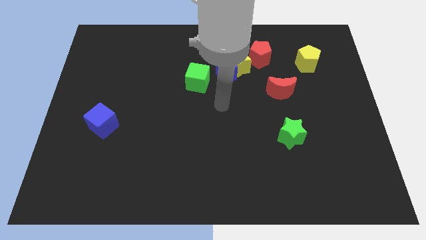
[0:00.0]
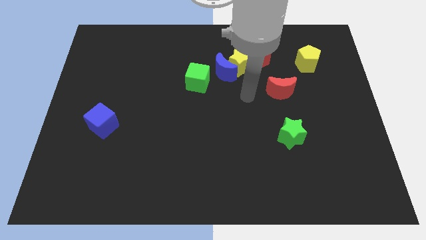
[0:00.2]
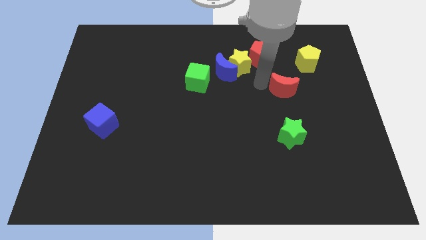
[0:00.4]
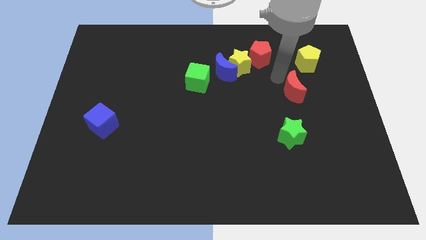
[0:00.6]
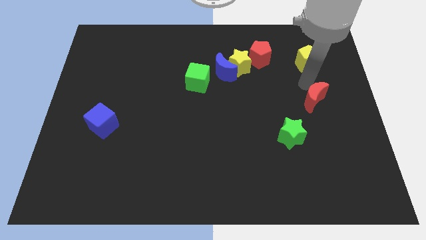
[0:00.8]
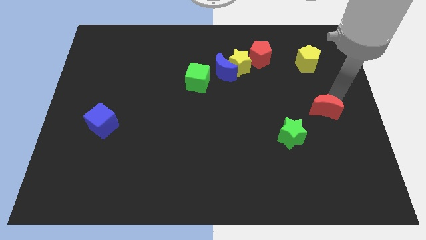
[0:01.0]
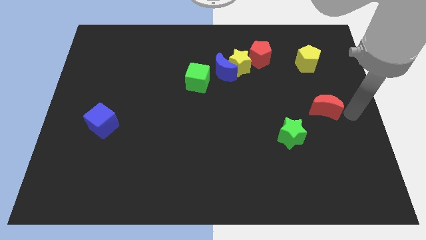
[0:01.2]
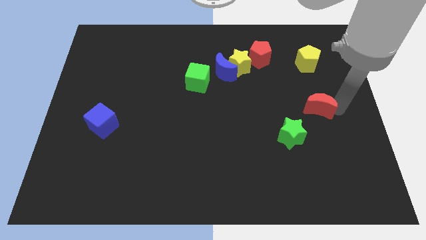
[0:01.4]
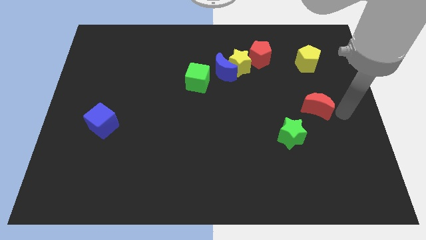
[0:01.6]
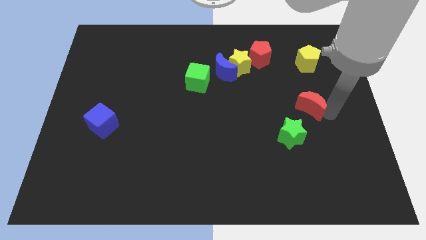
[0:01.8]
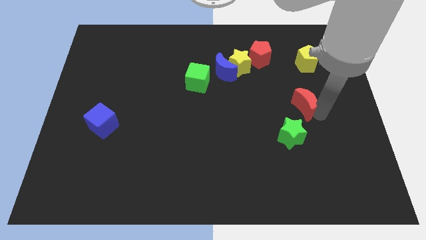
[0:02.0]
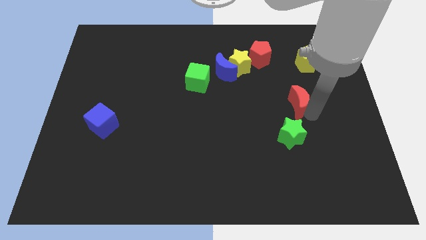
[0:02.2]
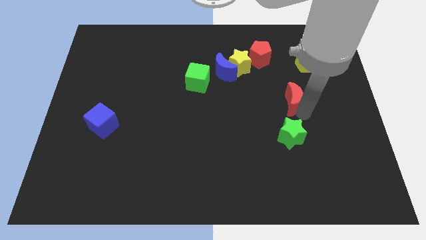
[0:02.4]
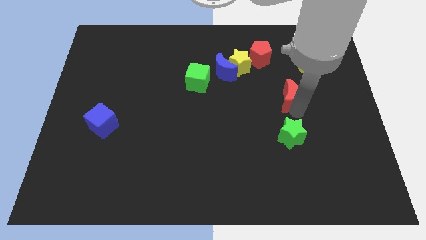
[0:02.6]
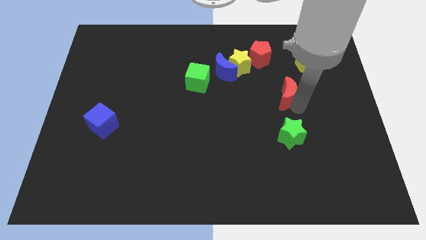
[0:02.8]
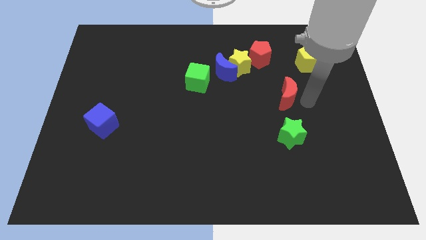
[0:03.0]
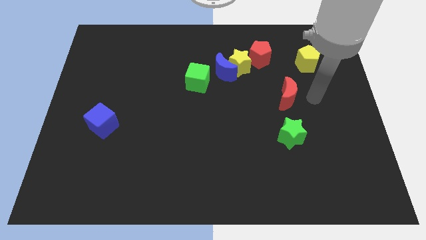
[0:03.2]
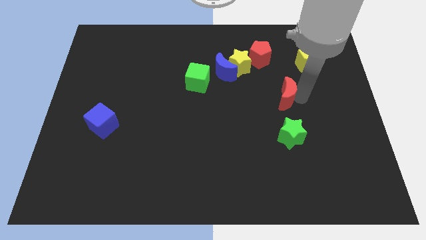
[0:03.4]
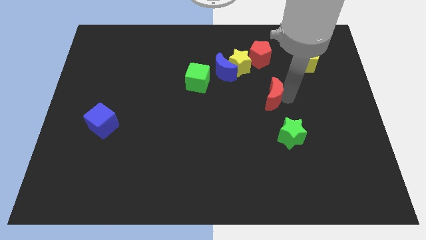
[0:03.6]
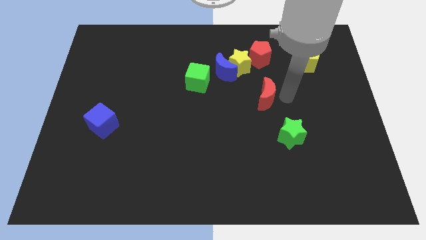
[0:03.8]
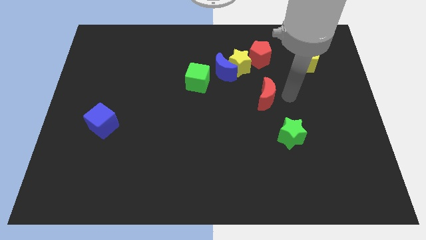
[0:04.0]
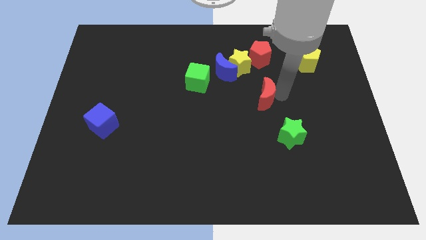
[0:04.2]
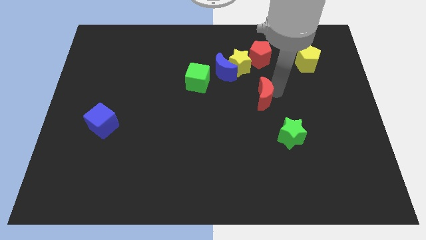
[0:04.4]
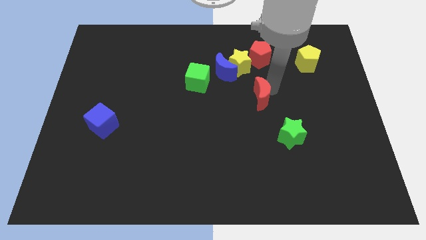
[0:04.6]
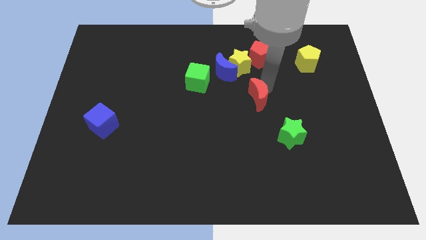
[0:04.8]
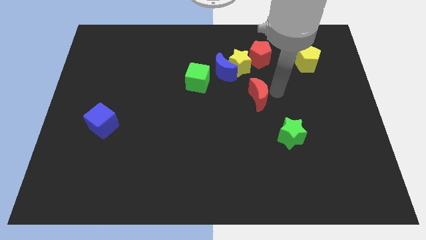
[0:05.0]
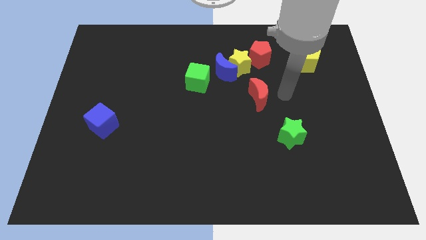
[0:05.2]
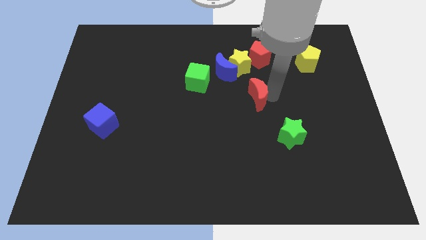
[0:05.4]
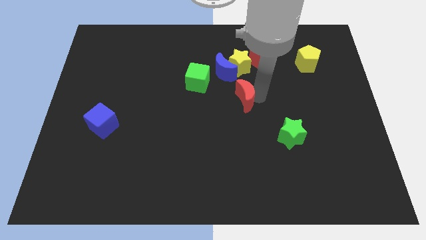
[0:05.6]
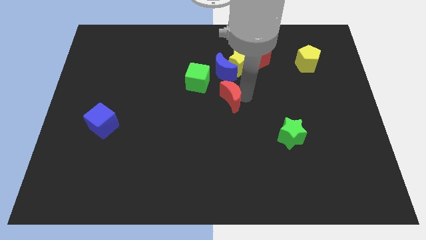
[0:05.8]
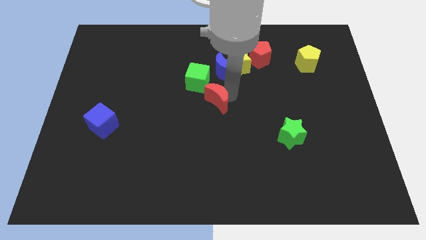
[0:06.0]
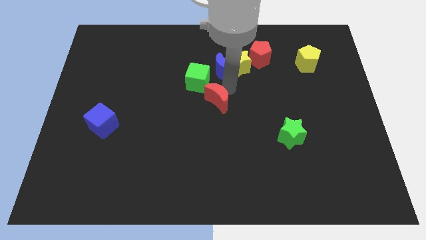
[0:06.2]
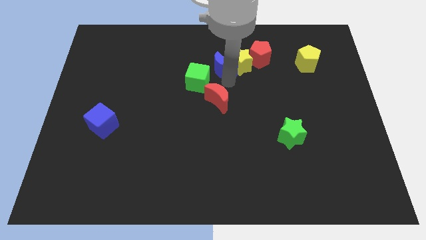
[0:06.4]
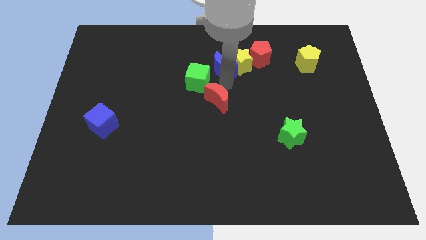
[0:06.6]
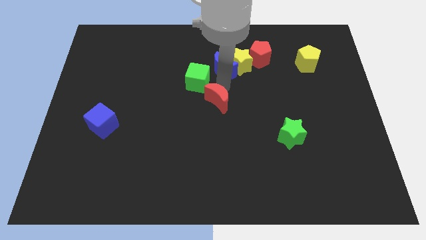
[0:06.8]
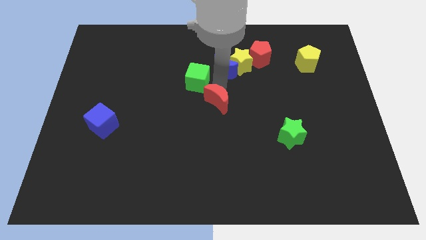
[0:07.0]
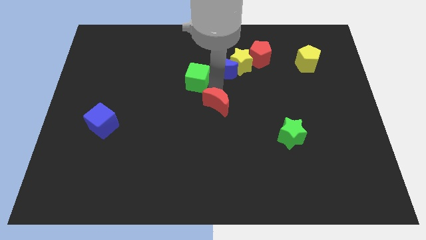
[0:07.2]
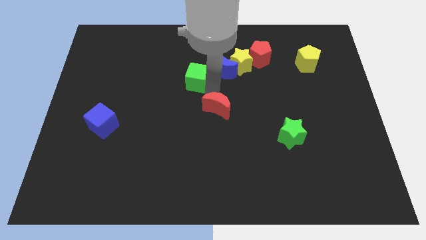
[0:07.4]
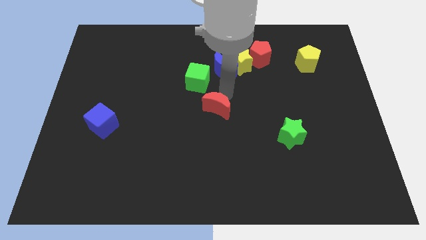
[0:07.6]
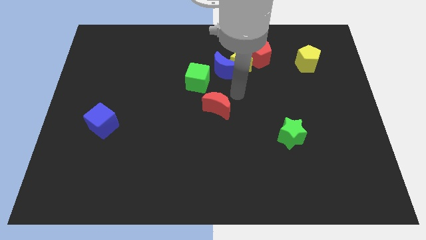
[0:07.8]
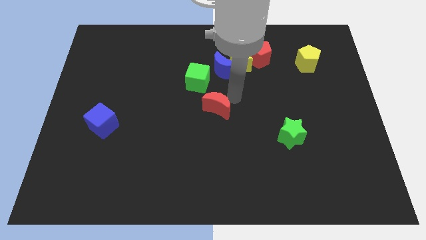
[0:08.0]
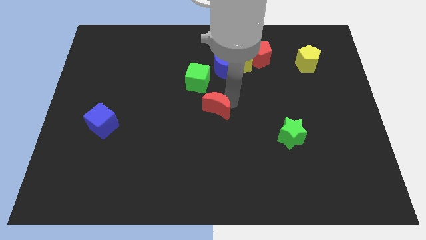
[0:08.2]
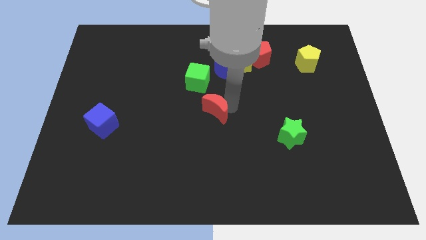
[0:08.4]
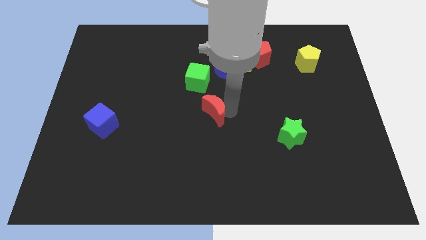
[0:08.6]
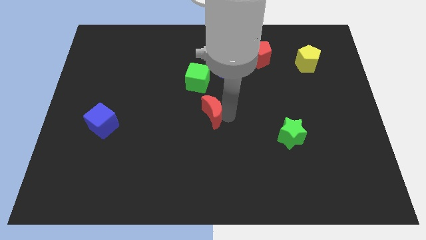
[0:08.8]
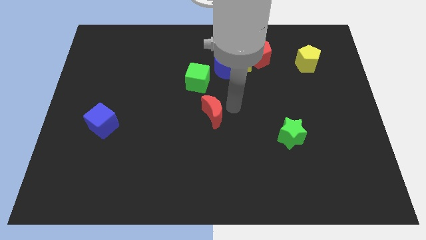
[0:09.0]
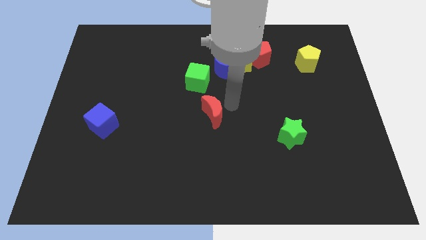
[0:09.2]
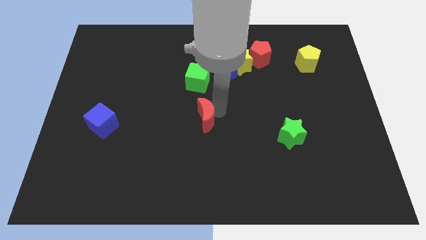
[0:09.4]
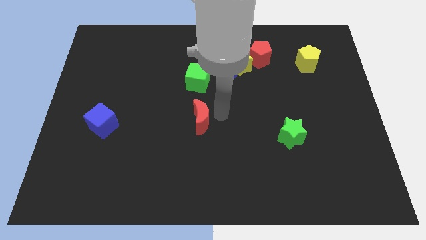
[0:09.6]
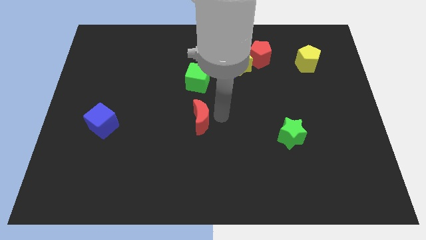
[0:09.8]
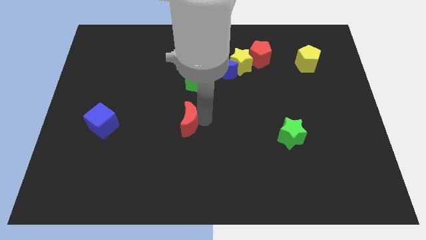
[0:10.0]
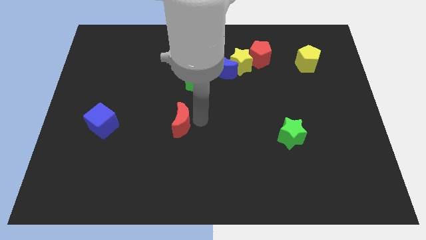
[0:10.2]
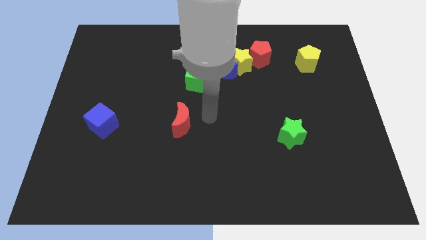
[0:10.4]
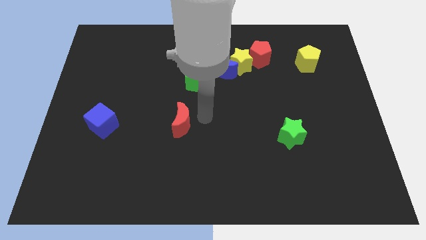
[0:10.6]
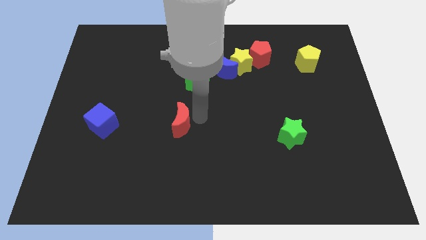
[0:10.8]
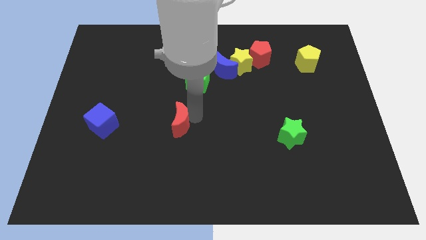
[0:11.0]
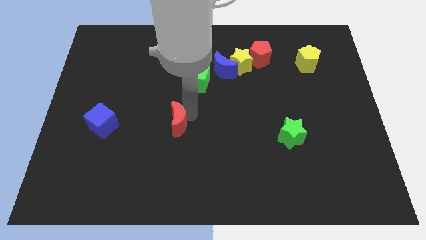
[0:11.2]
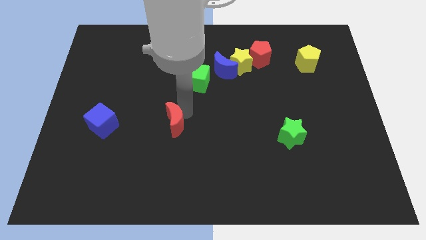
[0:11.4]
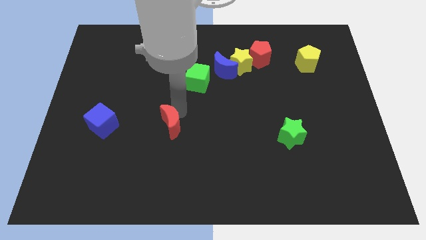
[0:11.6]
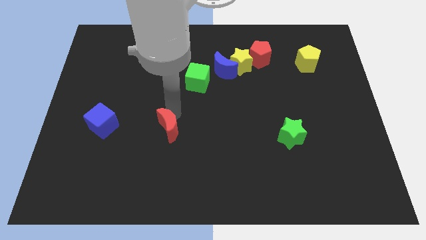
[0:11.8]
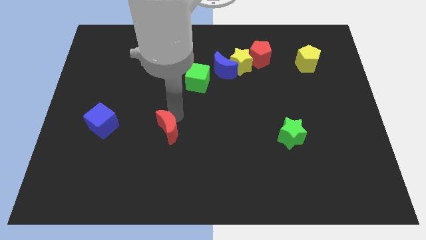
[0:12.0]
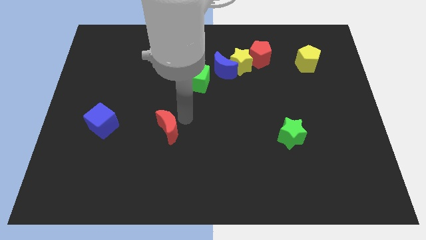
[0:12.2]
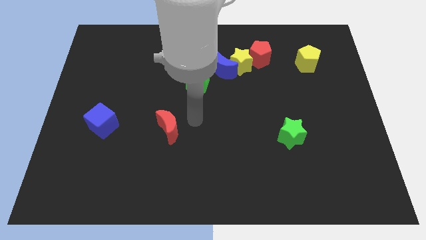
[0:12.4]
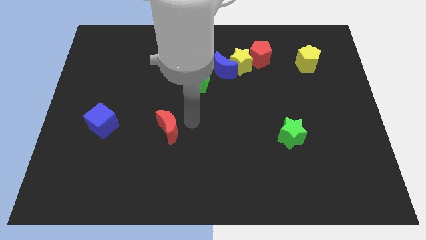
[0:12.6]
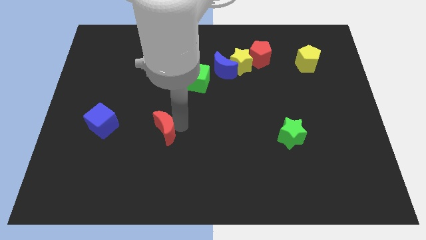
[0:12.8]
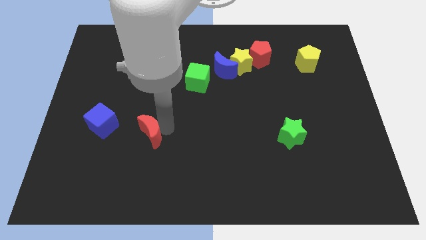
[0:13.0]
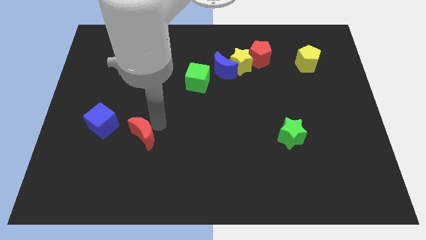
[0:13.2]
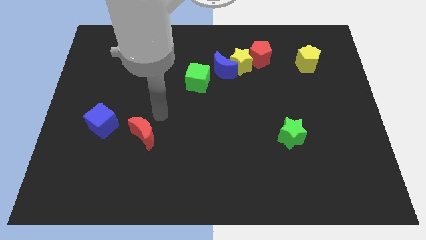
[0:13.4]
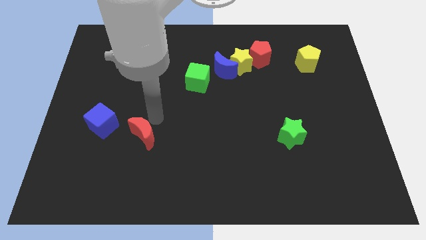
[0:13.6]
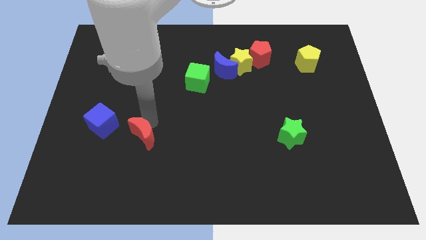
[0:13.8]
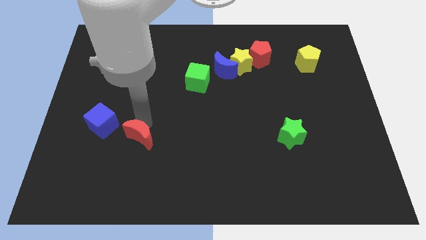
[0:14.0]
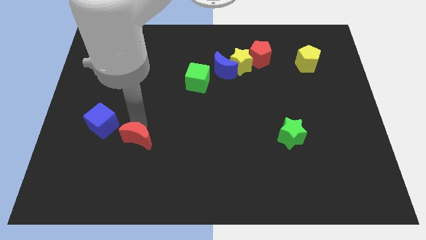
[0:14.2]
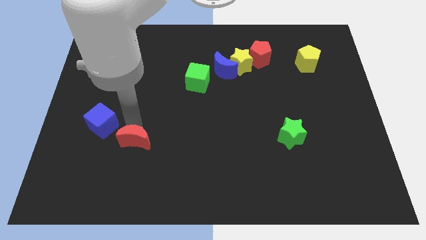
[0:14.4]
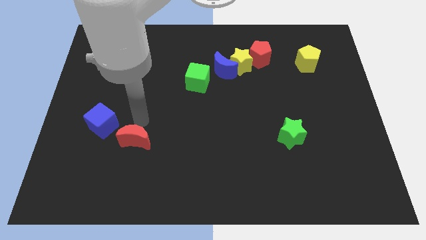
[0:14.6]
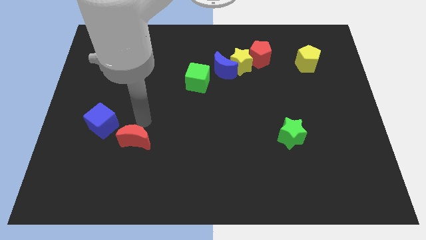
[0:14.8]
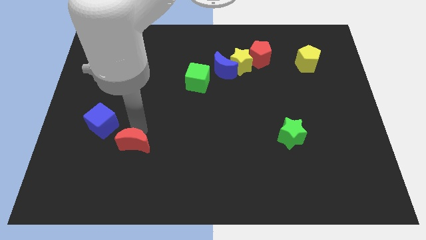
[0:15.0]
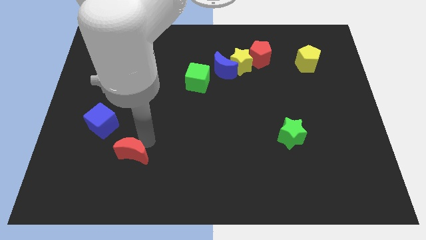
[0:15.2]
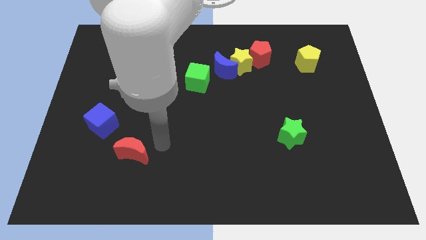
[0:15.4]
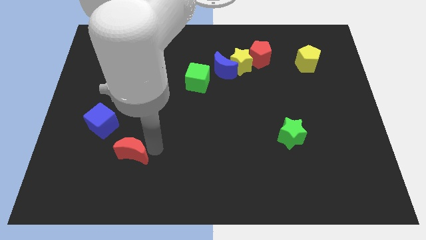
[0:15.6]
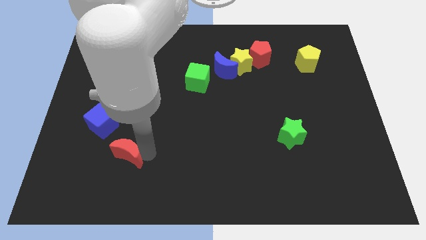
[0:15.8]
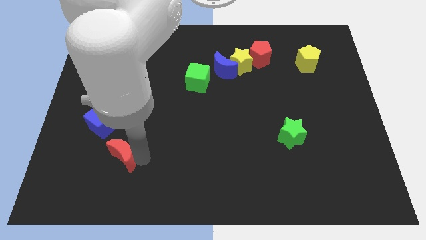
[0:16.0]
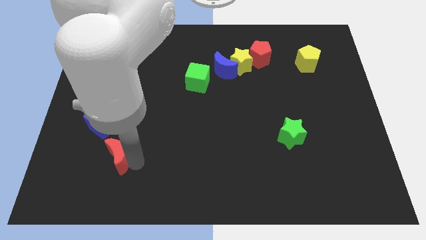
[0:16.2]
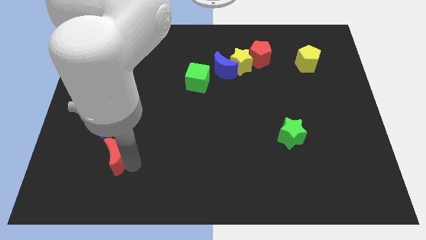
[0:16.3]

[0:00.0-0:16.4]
slide the red moon to the bottom of the blue cube
